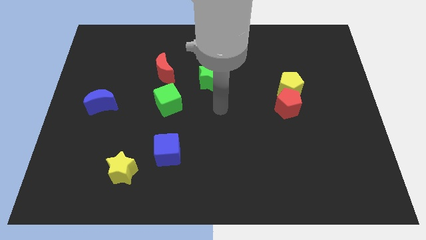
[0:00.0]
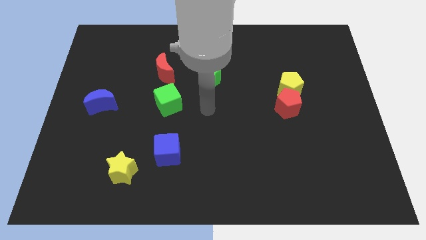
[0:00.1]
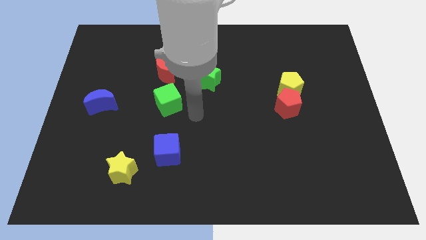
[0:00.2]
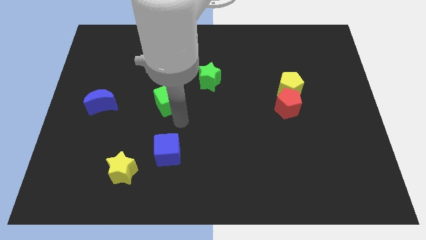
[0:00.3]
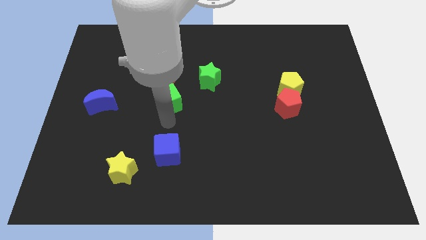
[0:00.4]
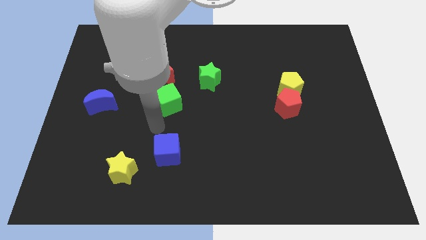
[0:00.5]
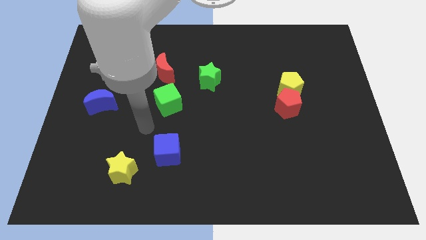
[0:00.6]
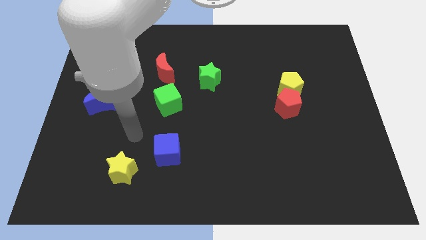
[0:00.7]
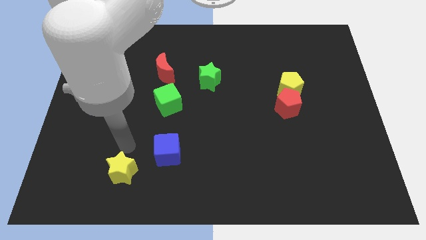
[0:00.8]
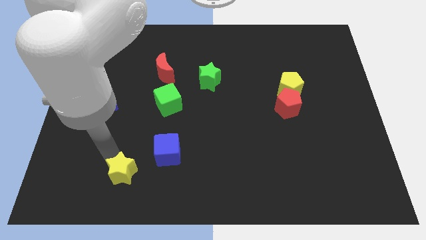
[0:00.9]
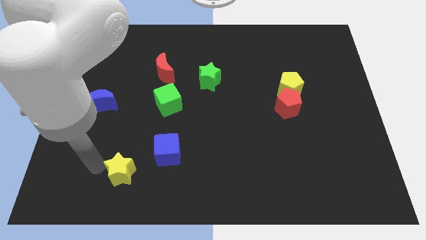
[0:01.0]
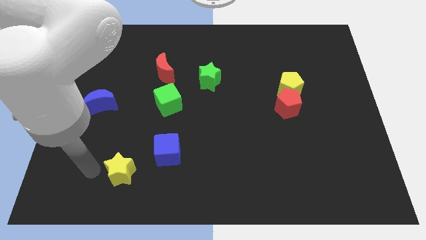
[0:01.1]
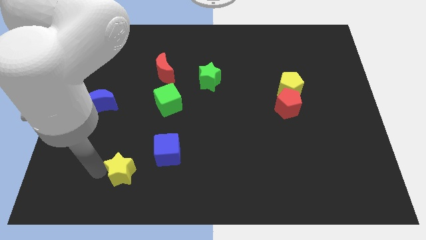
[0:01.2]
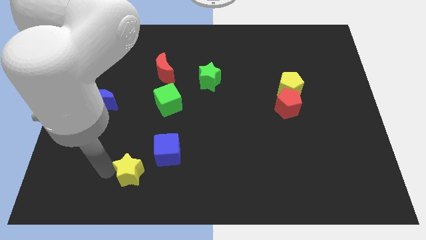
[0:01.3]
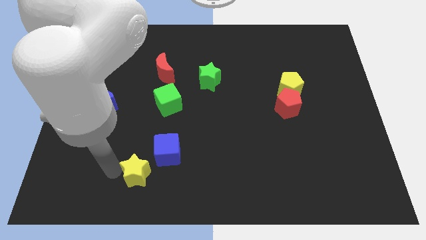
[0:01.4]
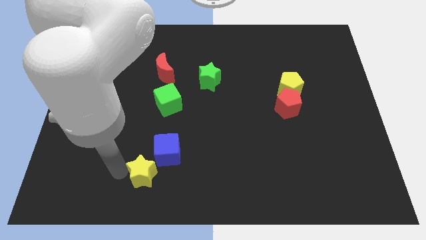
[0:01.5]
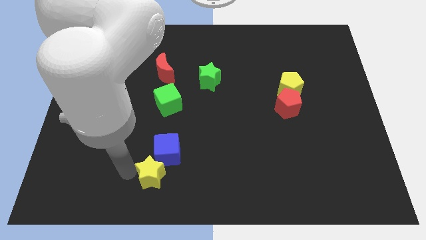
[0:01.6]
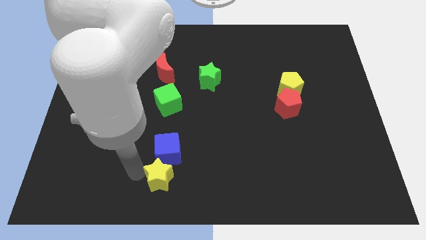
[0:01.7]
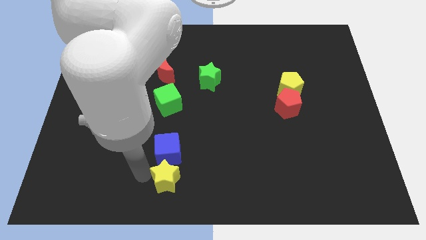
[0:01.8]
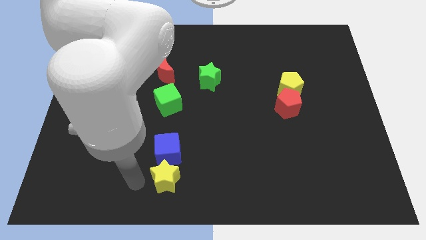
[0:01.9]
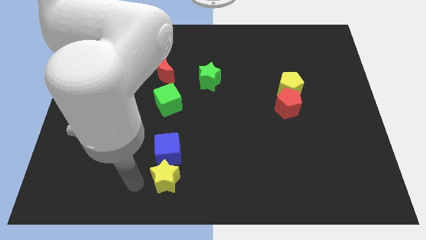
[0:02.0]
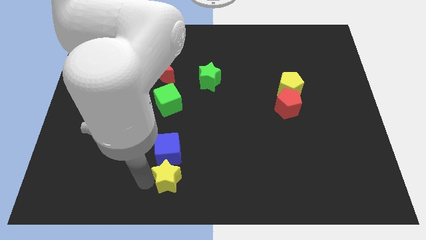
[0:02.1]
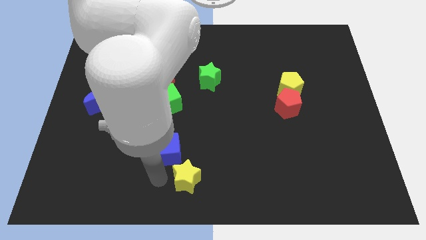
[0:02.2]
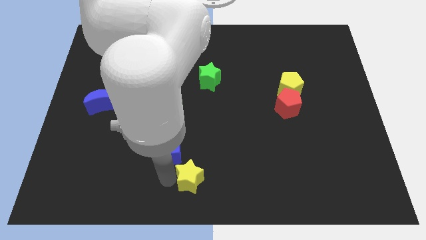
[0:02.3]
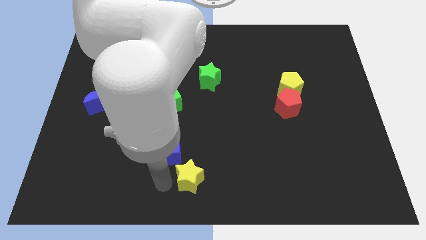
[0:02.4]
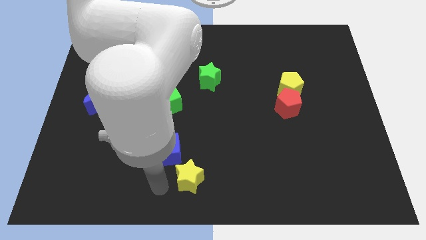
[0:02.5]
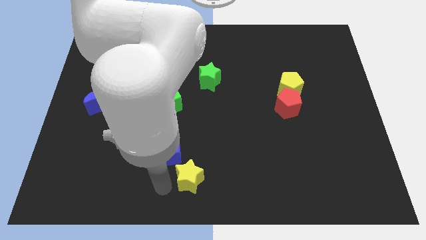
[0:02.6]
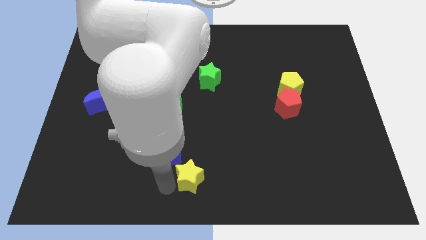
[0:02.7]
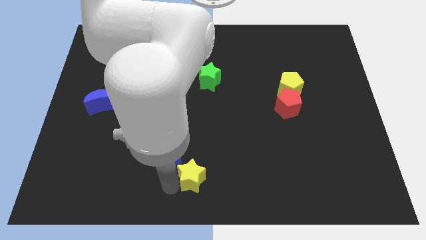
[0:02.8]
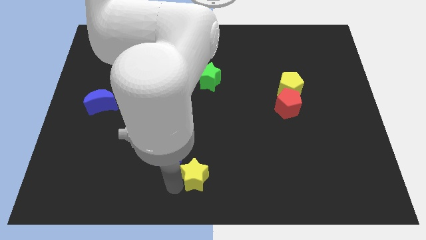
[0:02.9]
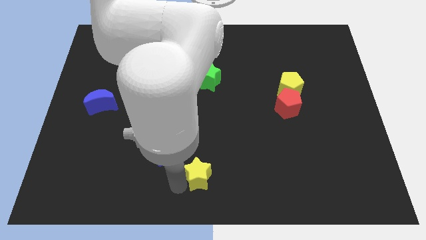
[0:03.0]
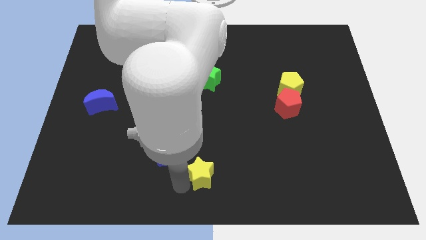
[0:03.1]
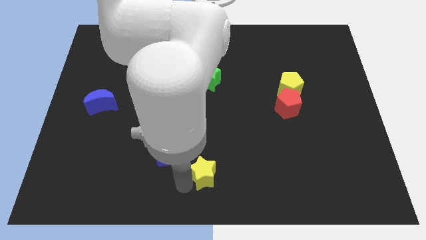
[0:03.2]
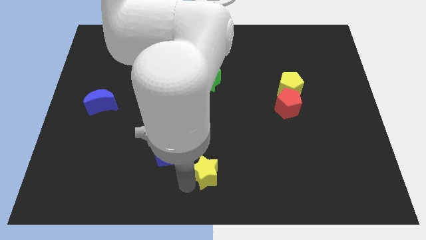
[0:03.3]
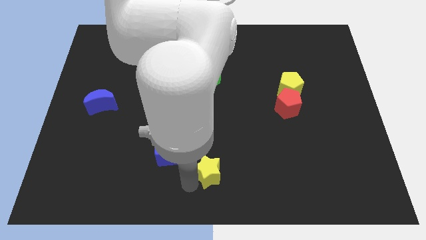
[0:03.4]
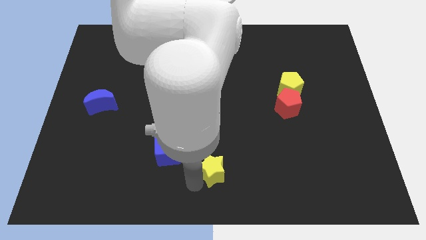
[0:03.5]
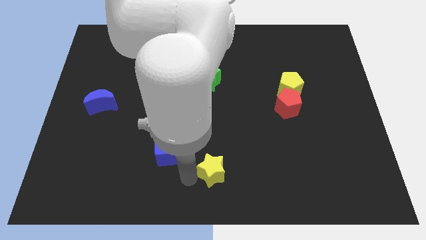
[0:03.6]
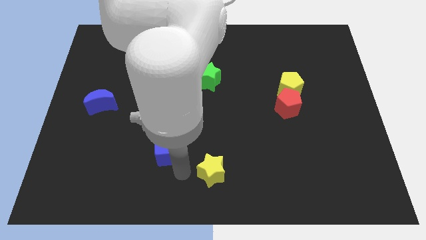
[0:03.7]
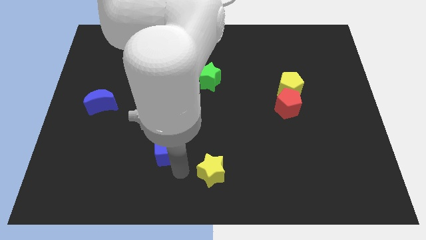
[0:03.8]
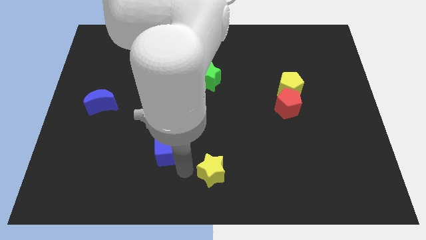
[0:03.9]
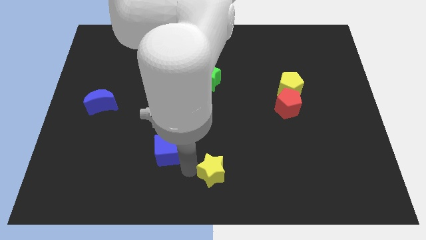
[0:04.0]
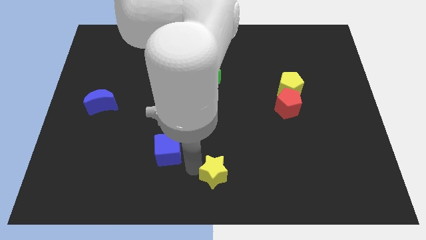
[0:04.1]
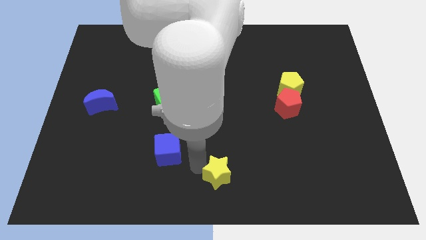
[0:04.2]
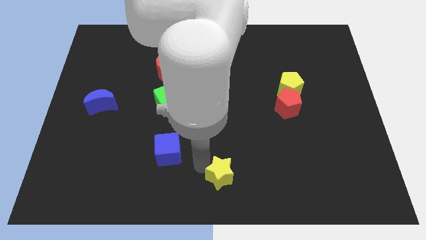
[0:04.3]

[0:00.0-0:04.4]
move the yellow star to the right

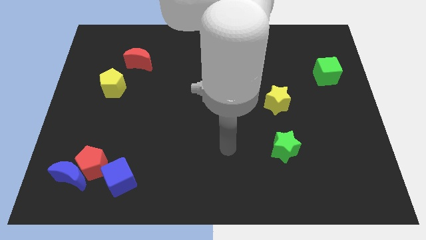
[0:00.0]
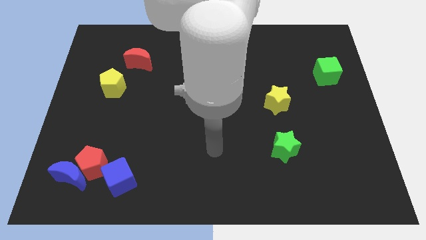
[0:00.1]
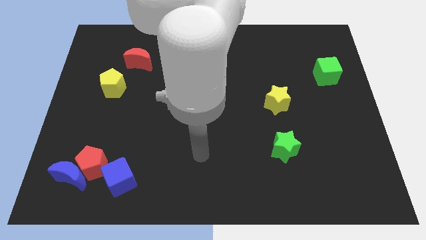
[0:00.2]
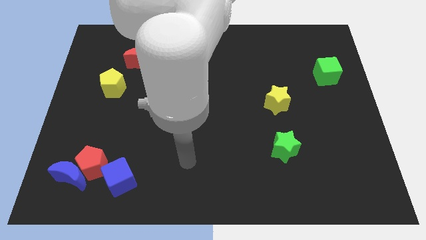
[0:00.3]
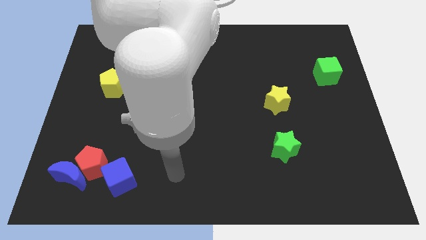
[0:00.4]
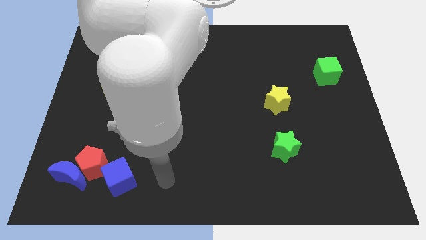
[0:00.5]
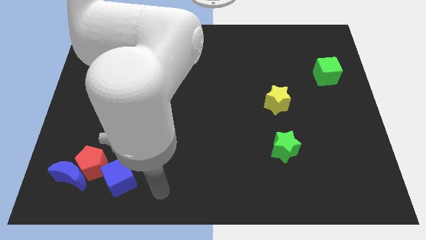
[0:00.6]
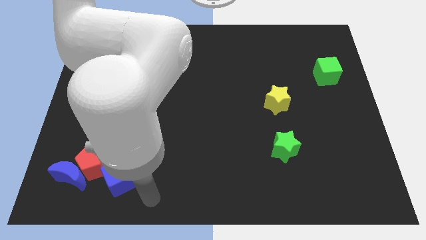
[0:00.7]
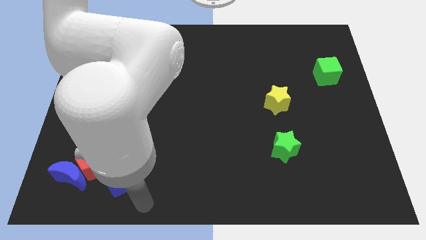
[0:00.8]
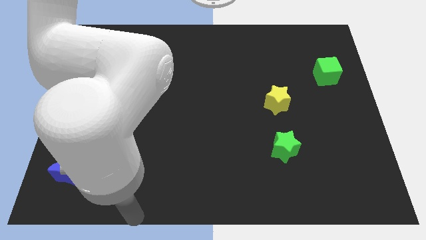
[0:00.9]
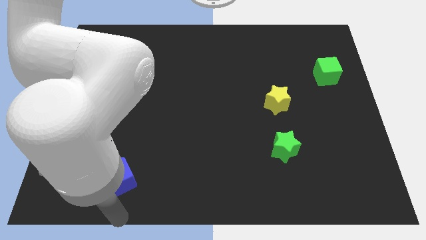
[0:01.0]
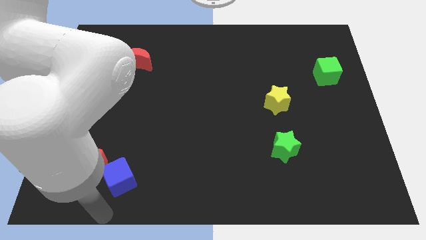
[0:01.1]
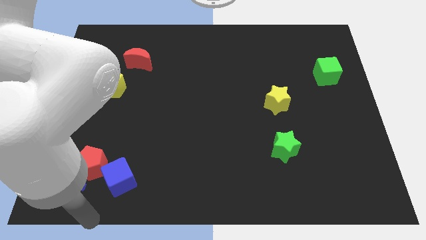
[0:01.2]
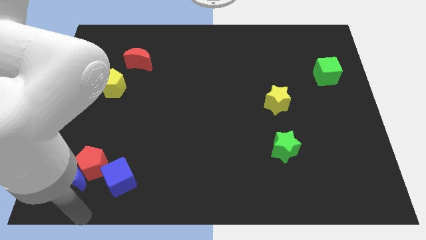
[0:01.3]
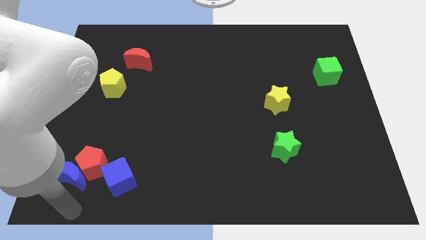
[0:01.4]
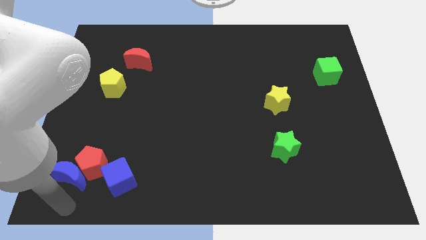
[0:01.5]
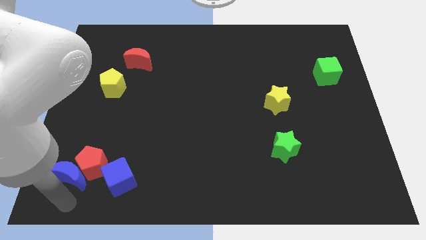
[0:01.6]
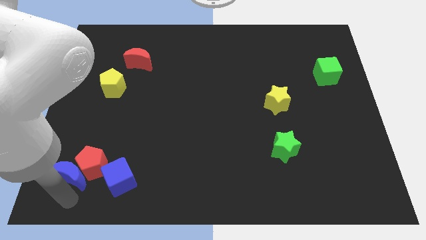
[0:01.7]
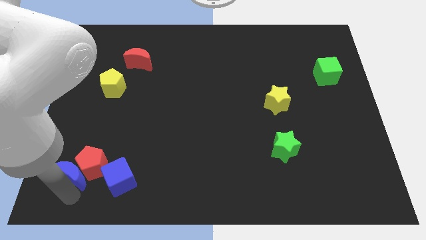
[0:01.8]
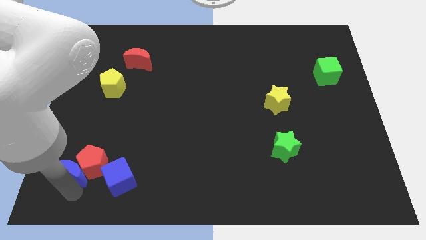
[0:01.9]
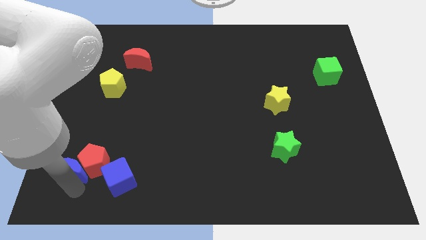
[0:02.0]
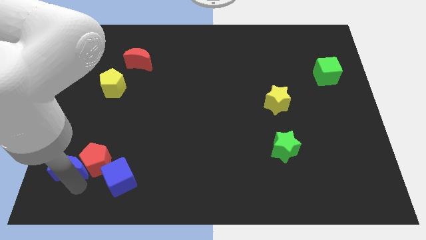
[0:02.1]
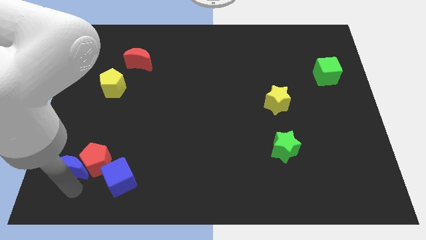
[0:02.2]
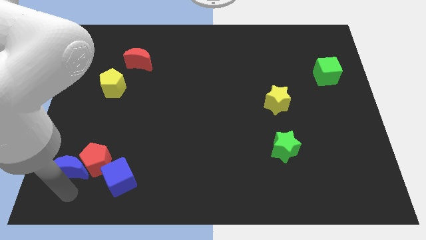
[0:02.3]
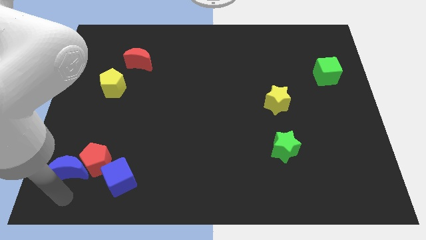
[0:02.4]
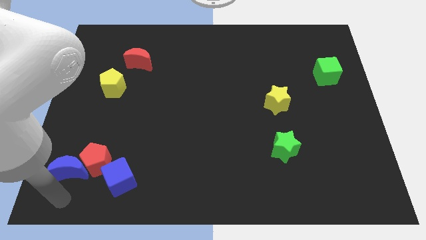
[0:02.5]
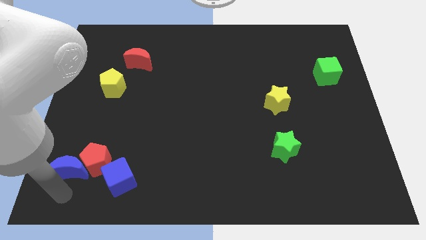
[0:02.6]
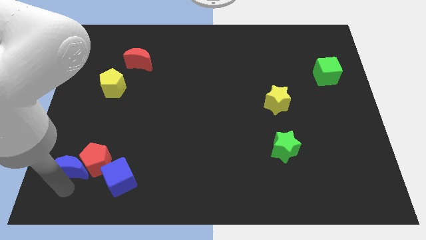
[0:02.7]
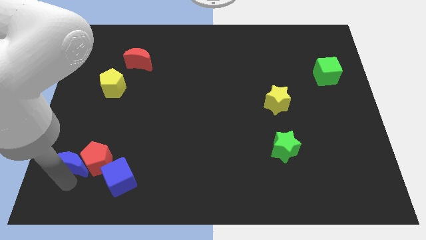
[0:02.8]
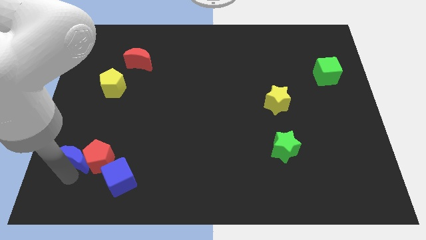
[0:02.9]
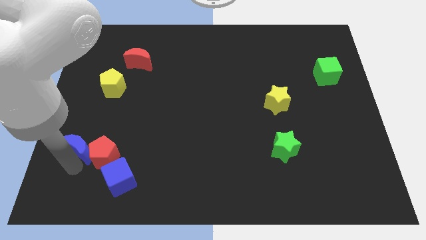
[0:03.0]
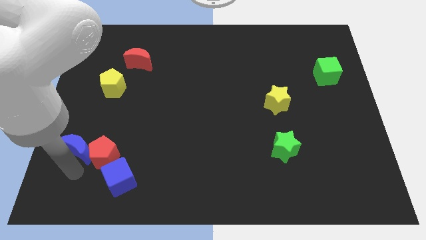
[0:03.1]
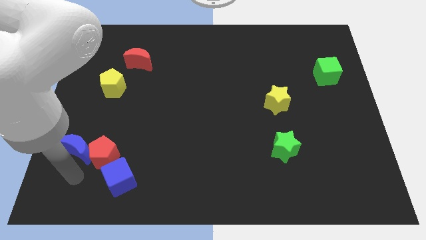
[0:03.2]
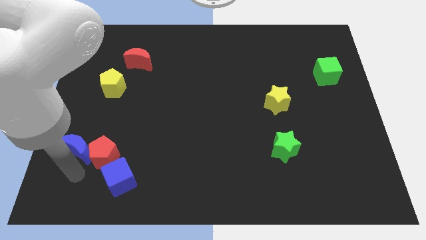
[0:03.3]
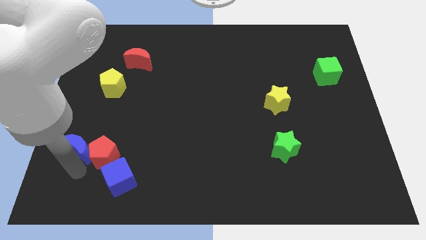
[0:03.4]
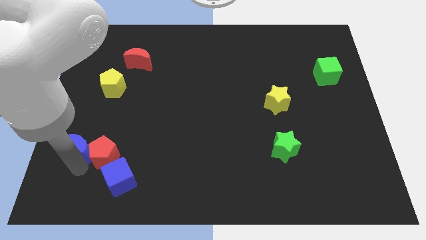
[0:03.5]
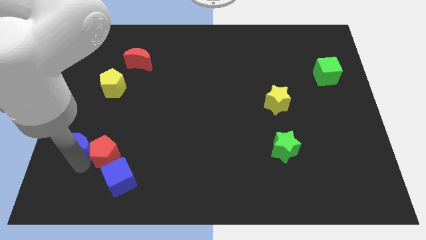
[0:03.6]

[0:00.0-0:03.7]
move the blue moon upwards somewhat
